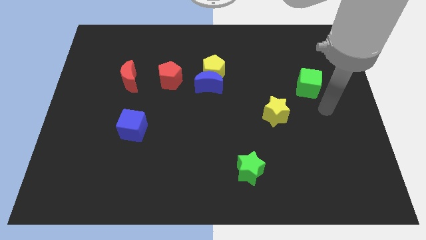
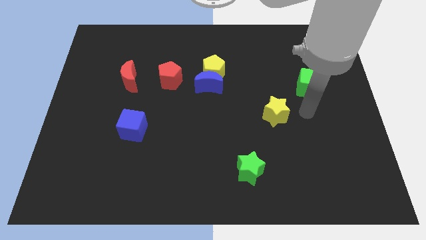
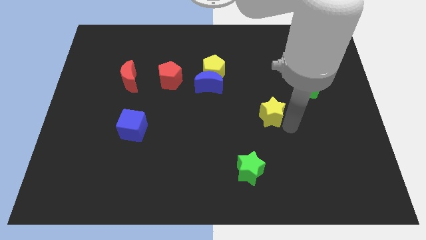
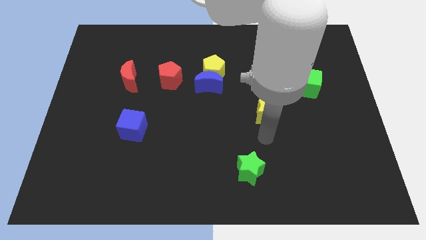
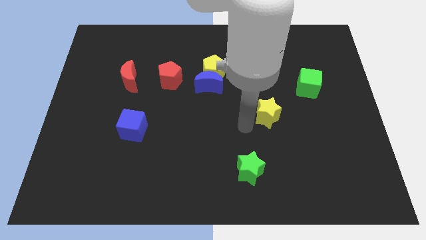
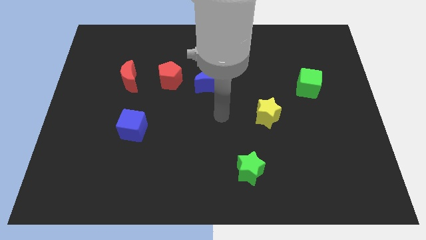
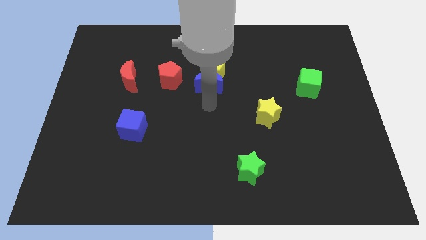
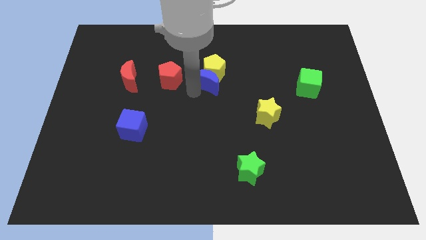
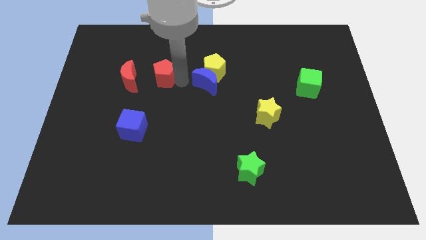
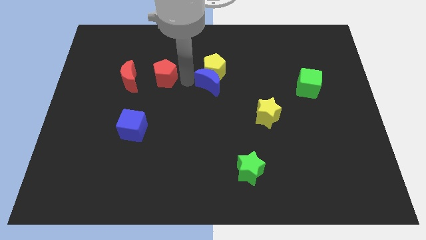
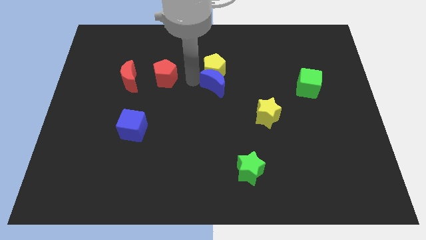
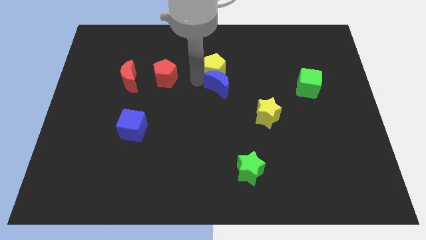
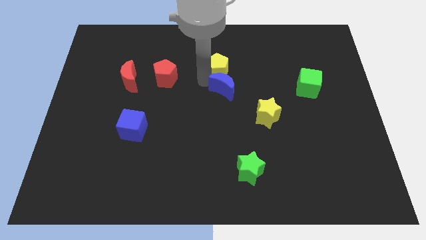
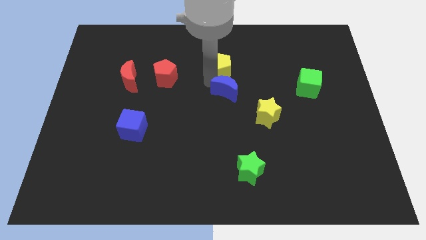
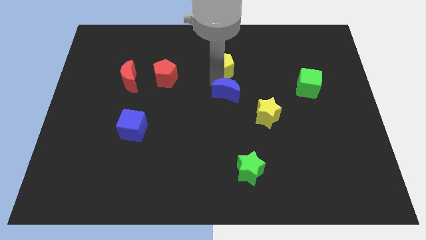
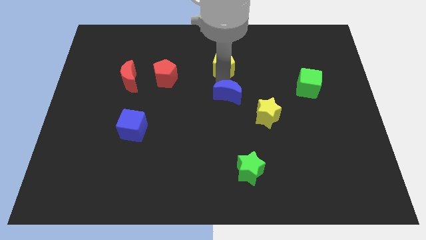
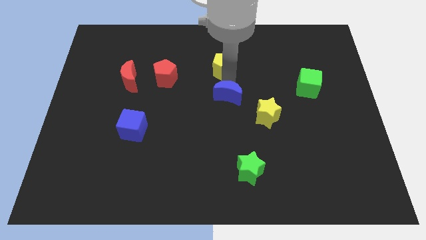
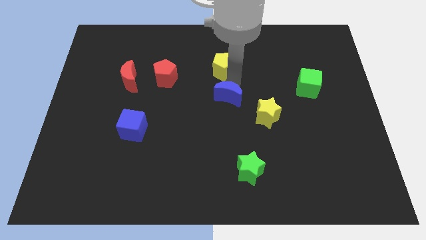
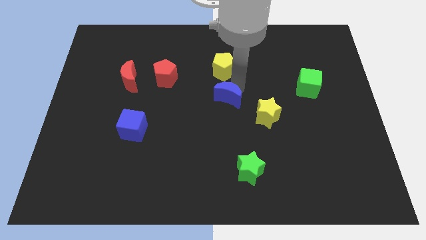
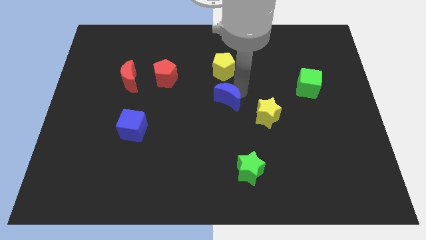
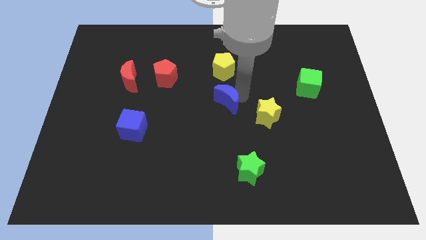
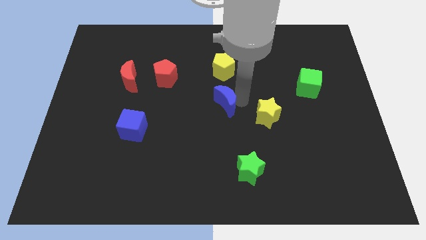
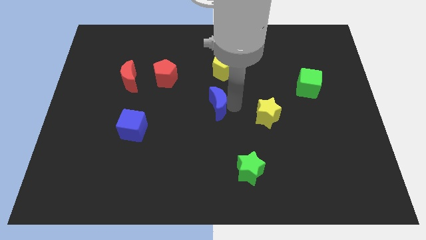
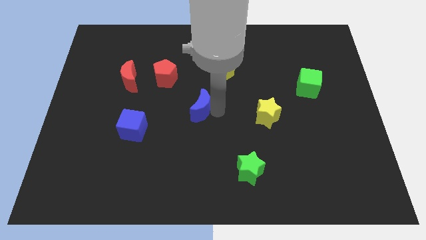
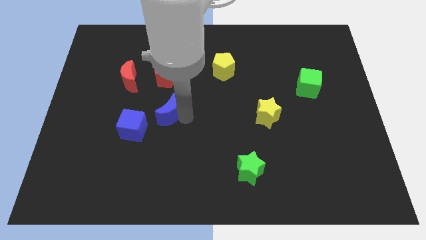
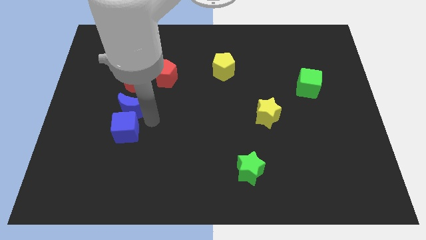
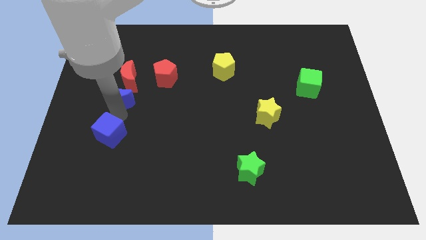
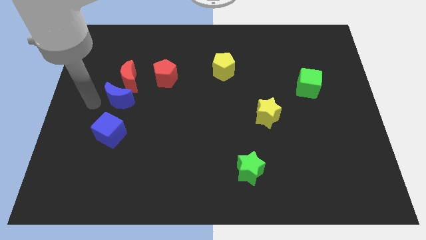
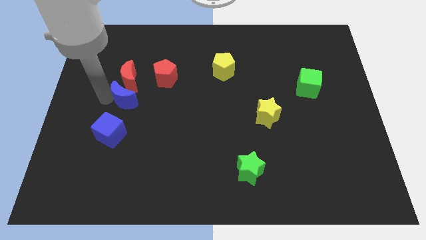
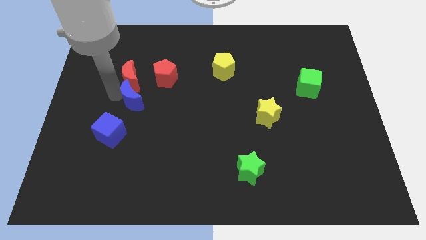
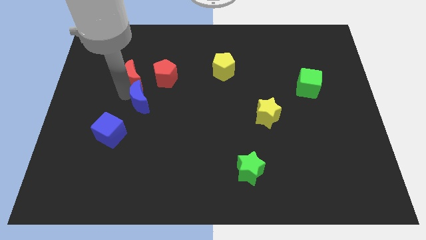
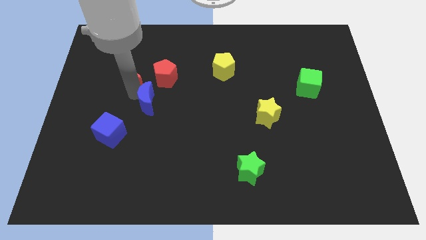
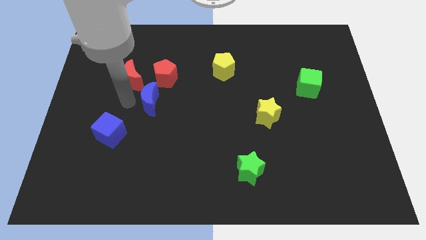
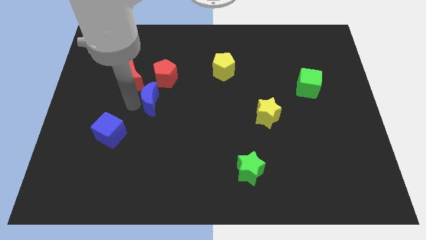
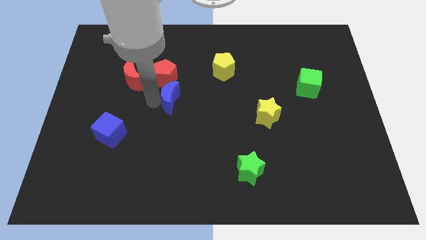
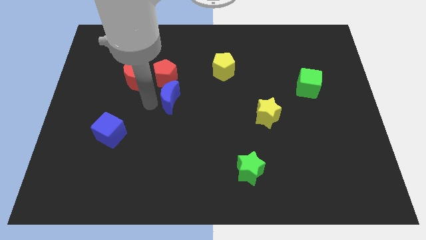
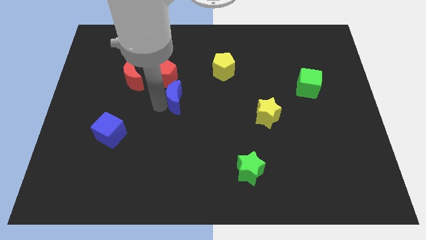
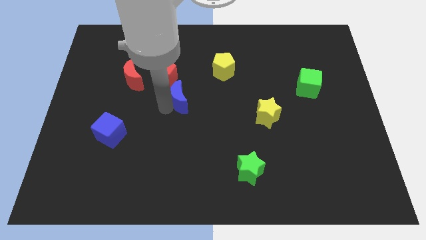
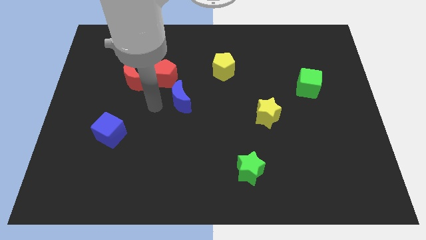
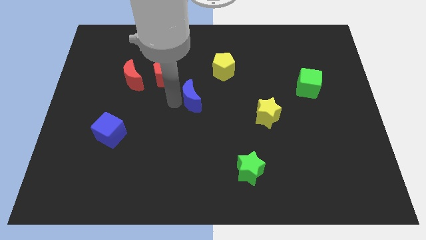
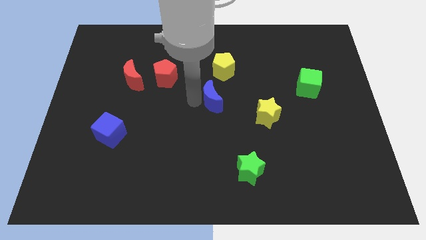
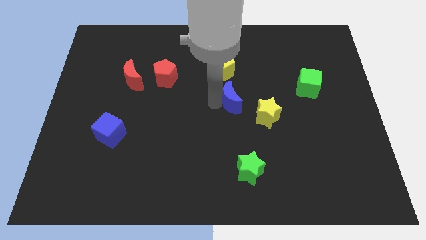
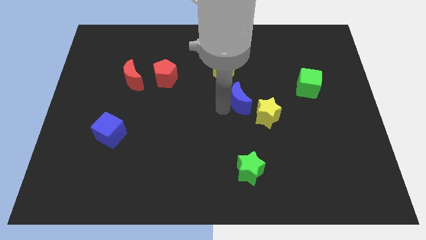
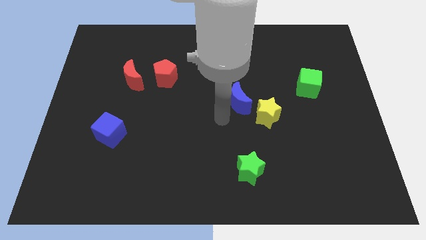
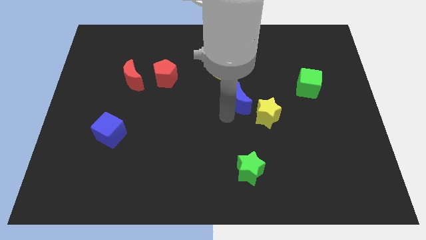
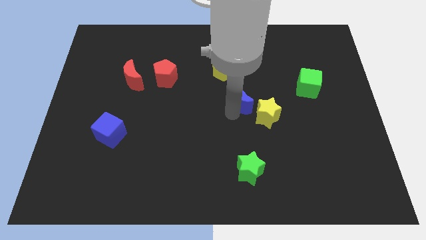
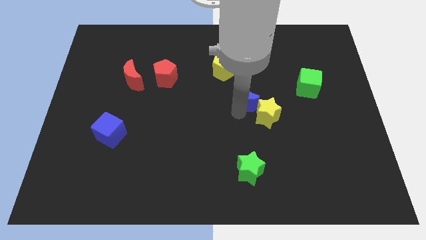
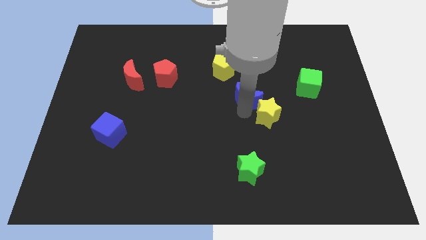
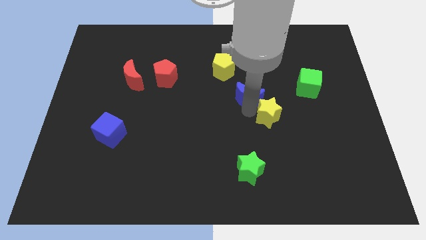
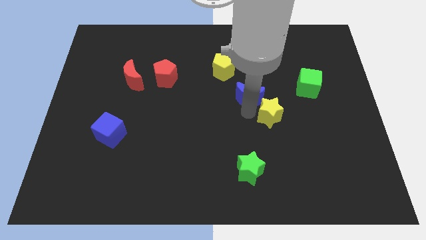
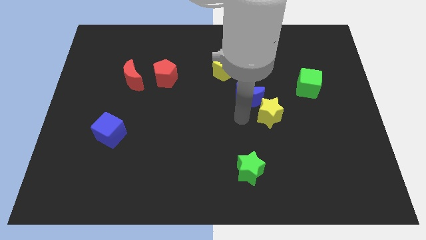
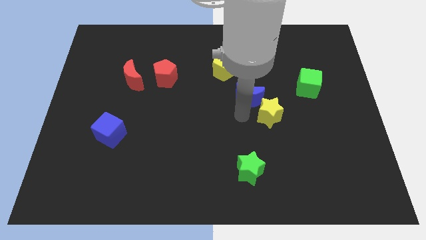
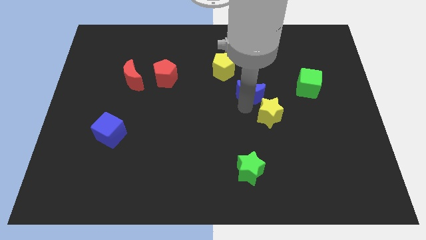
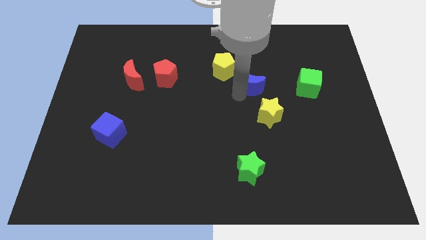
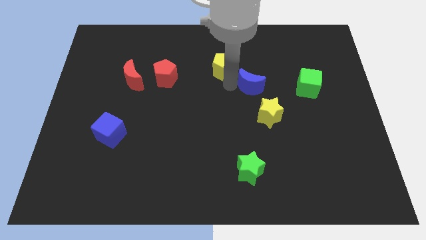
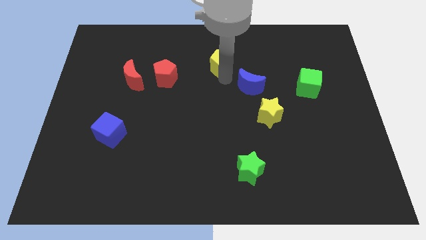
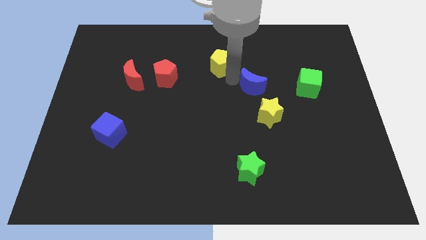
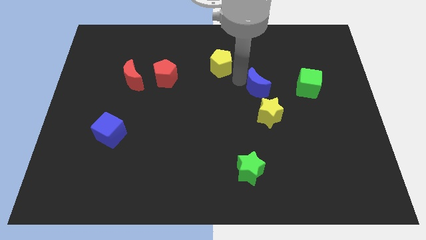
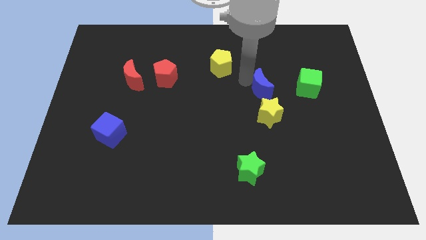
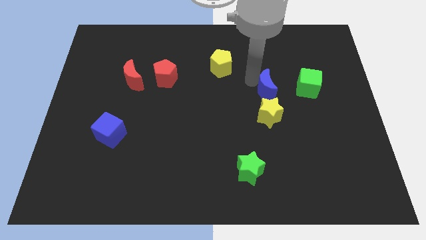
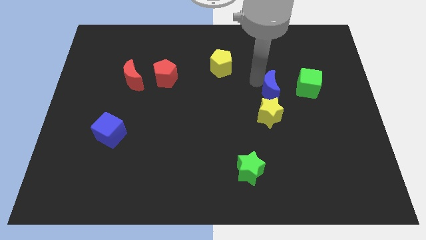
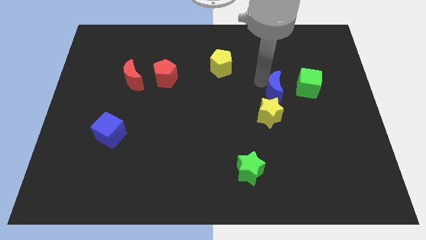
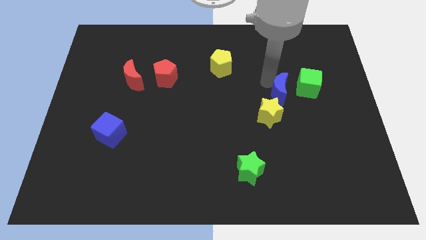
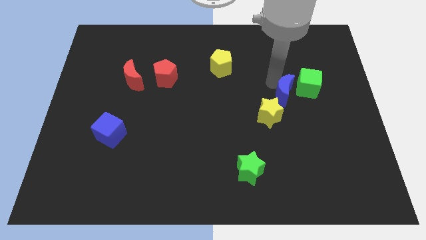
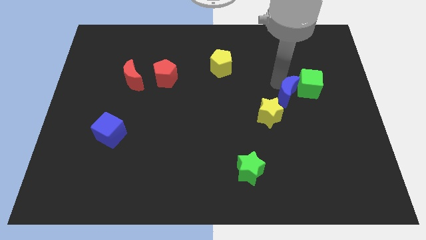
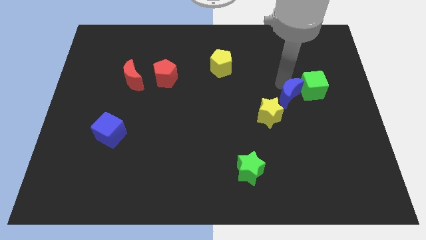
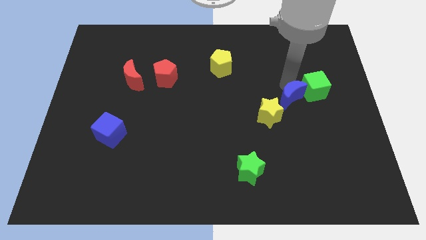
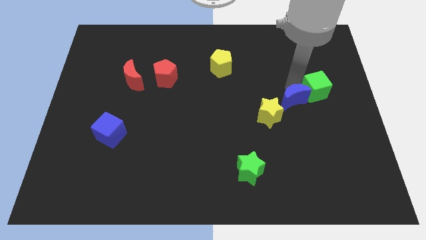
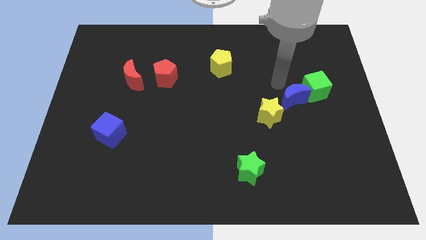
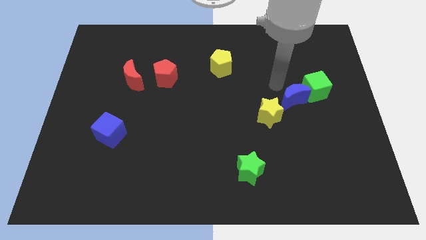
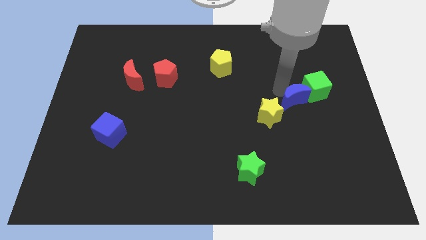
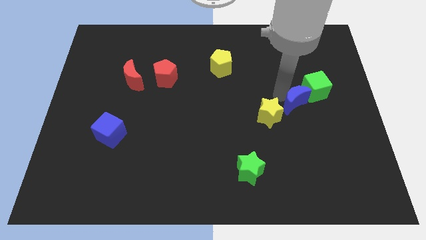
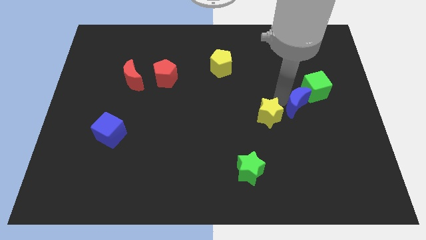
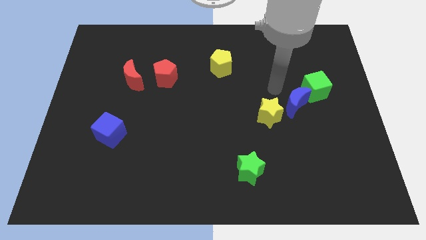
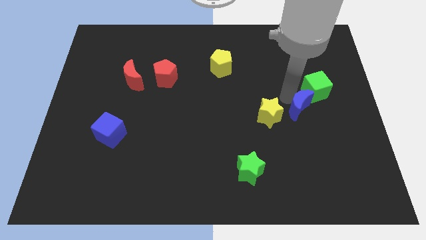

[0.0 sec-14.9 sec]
move the blue moon to the bottom side of the green cube
